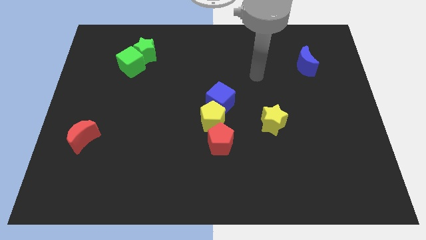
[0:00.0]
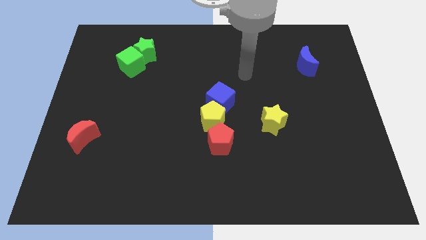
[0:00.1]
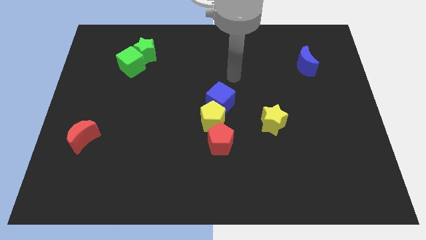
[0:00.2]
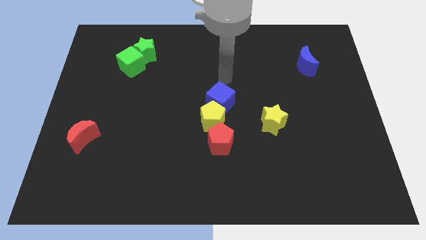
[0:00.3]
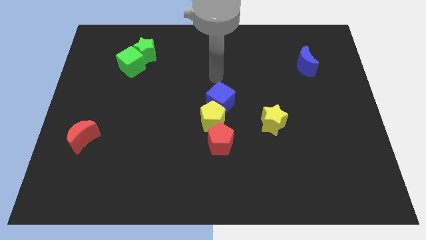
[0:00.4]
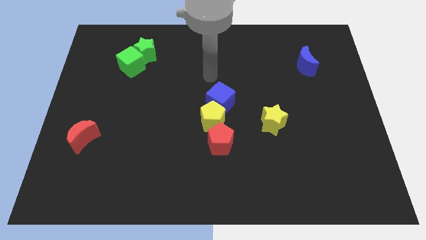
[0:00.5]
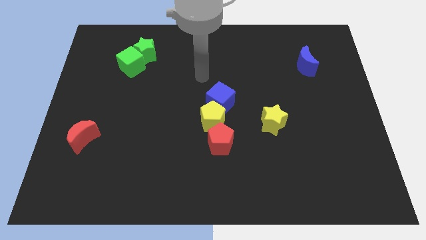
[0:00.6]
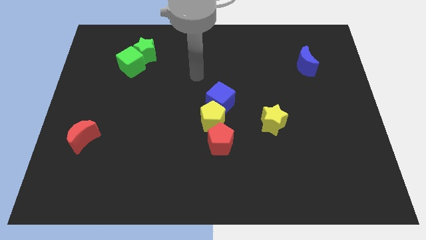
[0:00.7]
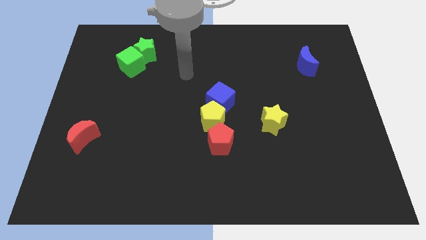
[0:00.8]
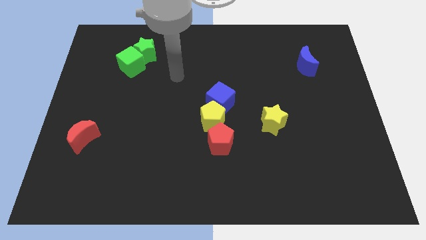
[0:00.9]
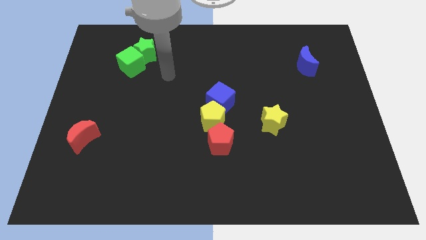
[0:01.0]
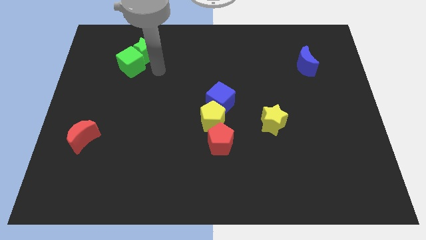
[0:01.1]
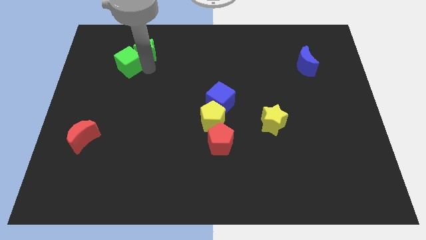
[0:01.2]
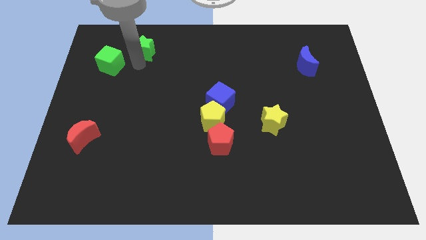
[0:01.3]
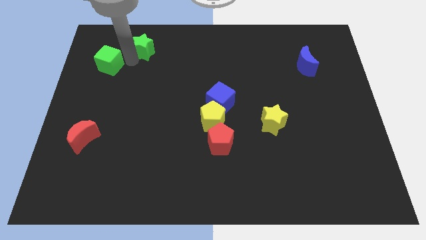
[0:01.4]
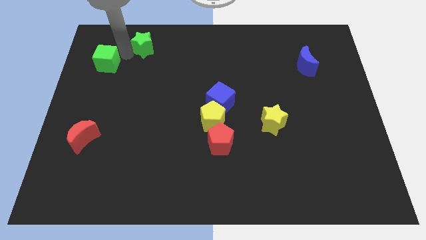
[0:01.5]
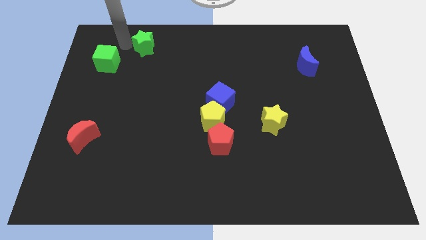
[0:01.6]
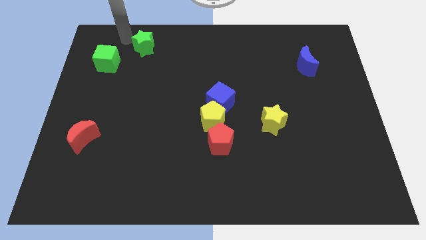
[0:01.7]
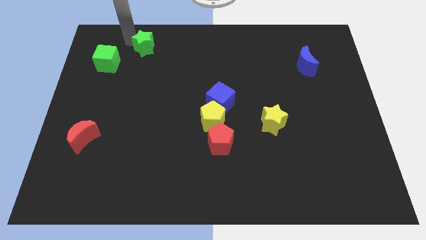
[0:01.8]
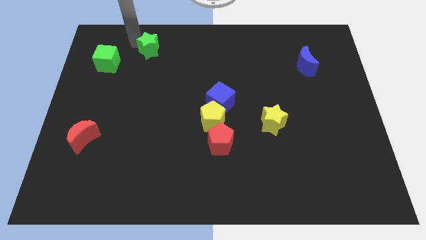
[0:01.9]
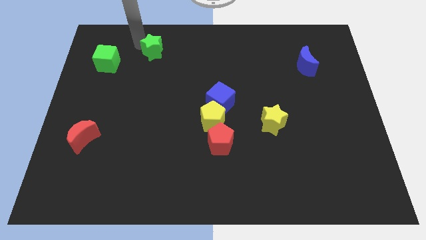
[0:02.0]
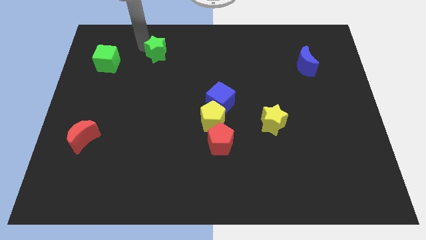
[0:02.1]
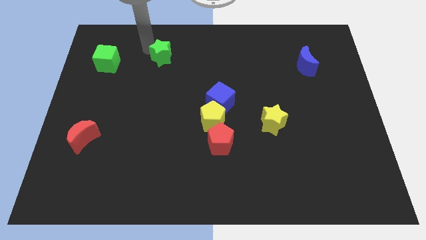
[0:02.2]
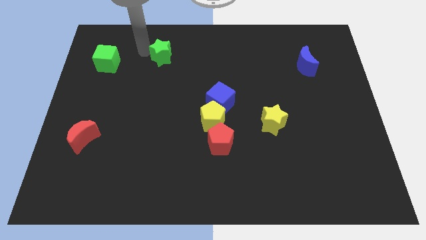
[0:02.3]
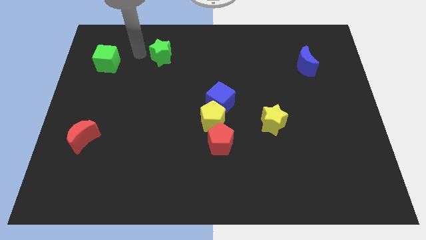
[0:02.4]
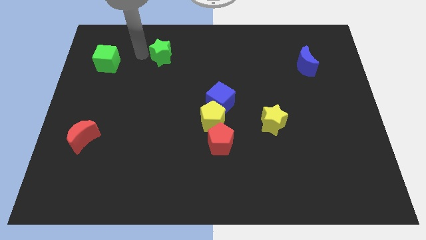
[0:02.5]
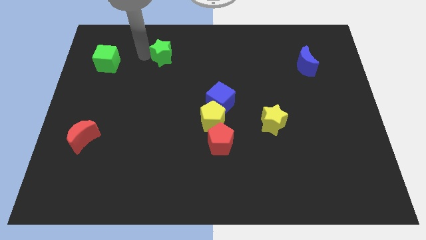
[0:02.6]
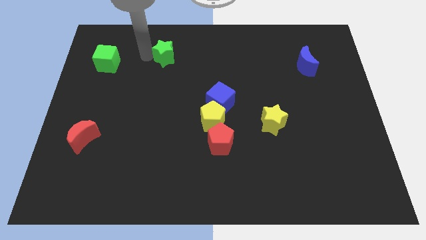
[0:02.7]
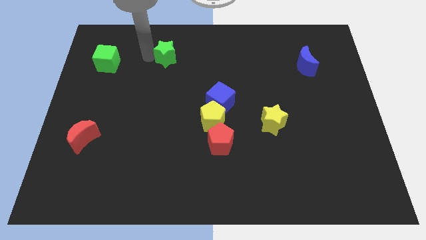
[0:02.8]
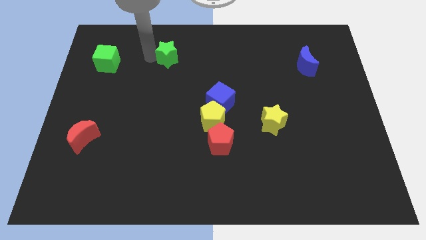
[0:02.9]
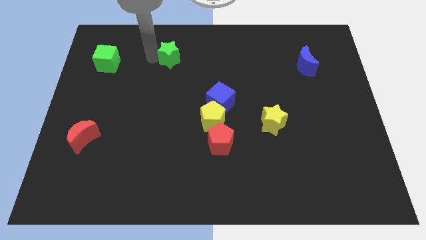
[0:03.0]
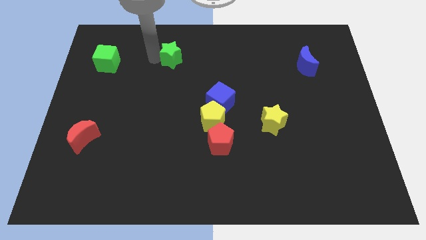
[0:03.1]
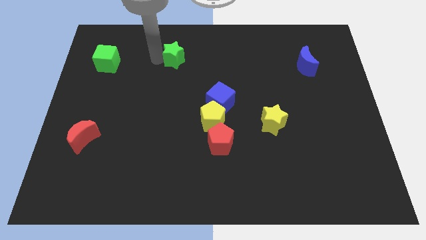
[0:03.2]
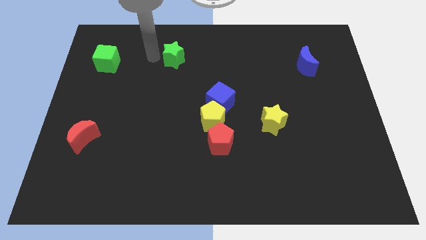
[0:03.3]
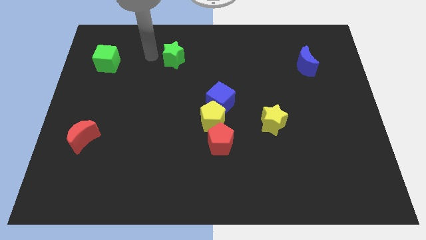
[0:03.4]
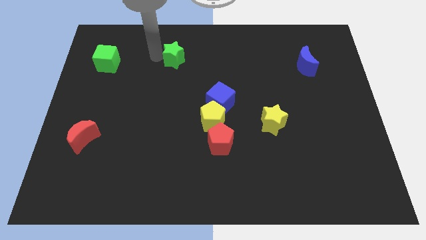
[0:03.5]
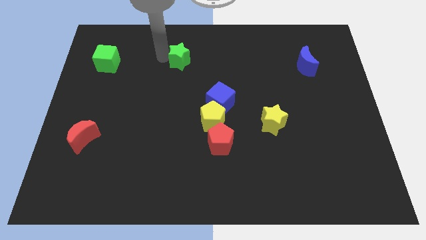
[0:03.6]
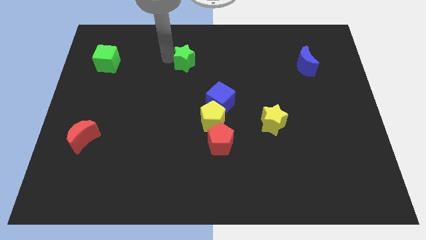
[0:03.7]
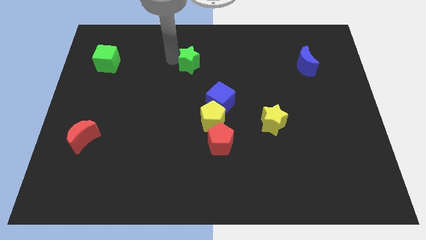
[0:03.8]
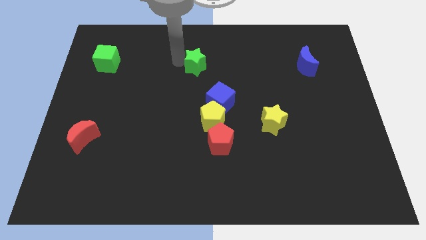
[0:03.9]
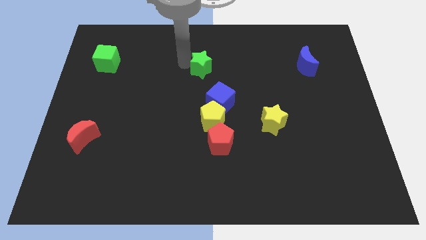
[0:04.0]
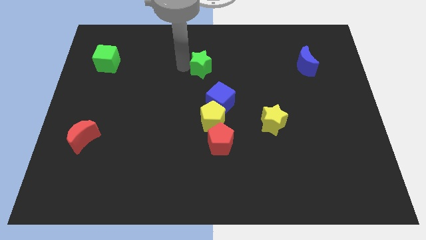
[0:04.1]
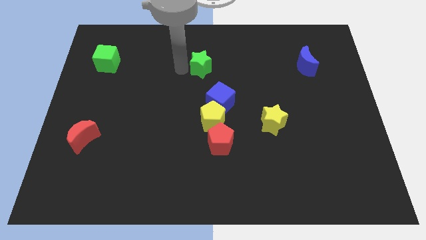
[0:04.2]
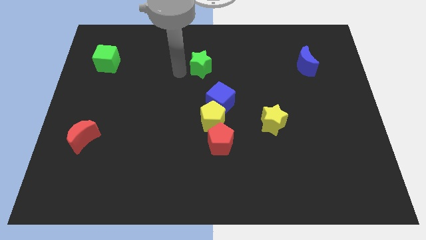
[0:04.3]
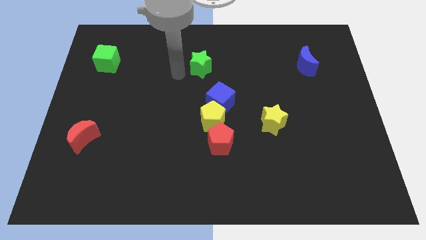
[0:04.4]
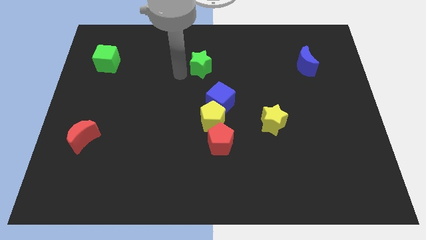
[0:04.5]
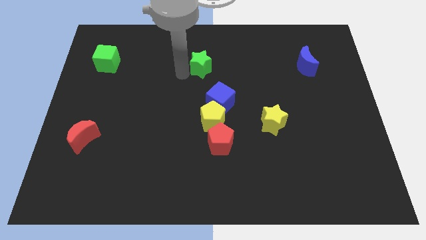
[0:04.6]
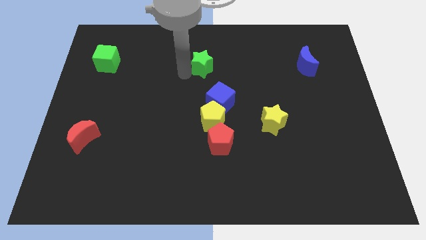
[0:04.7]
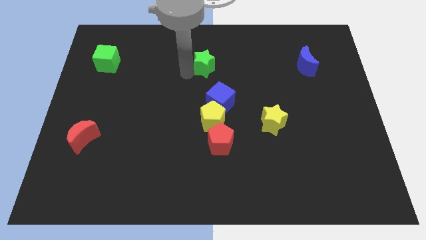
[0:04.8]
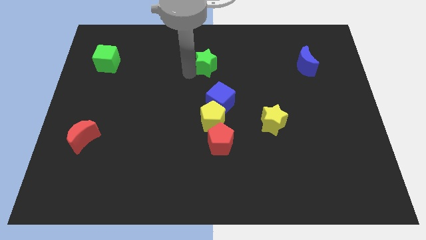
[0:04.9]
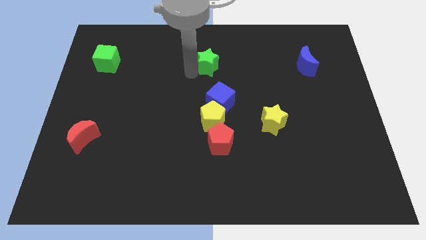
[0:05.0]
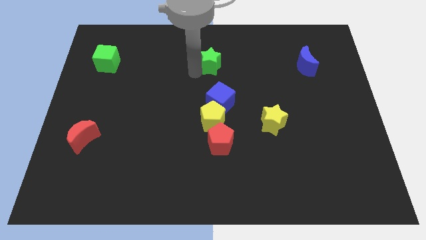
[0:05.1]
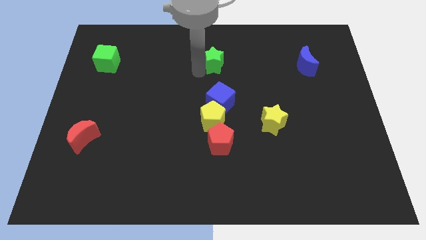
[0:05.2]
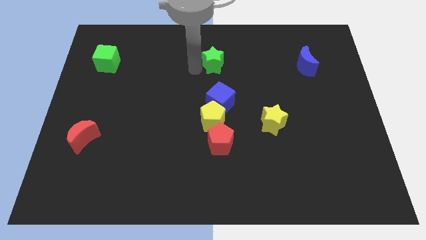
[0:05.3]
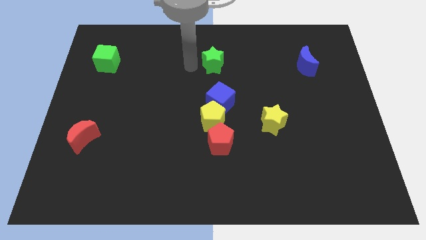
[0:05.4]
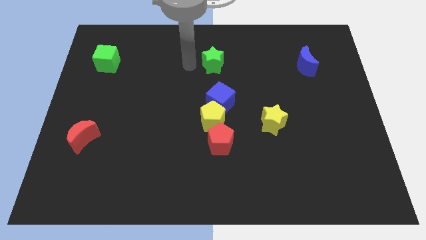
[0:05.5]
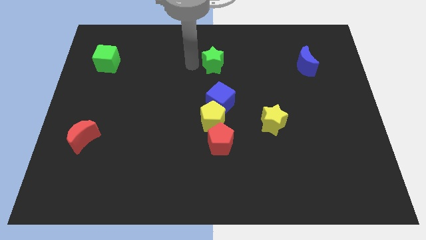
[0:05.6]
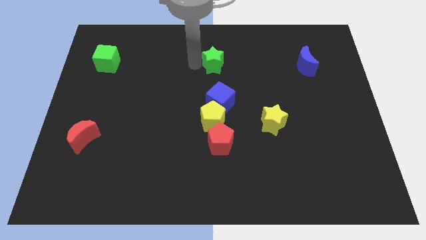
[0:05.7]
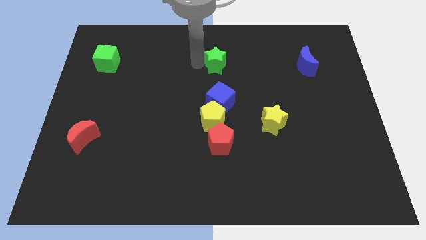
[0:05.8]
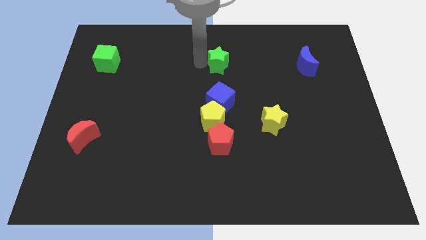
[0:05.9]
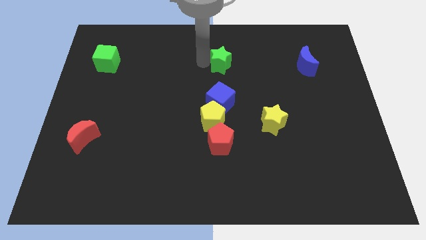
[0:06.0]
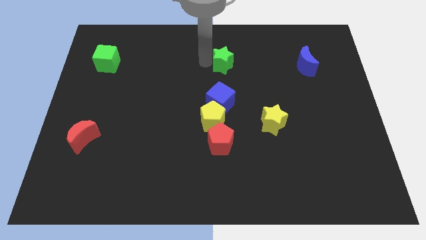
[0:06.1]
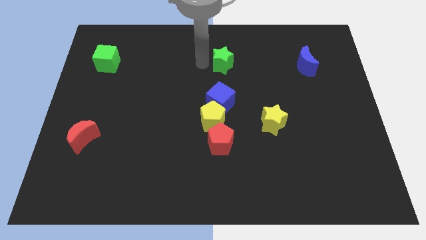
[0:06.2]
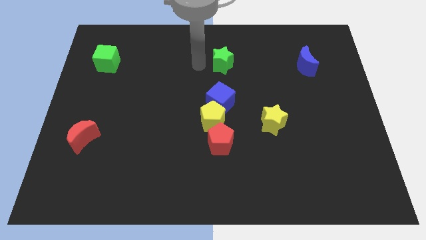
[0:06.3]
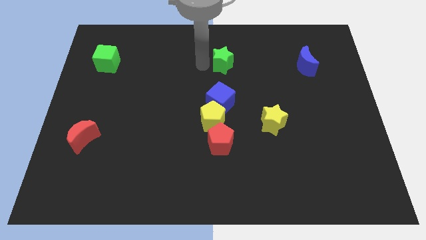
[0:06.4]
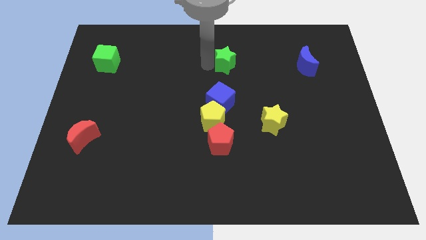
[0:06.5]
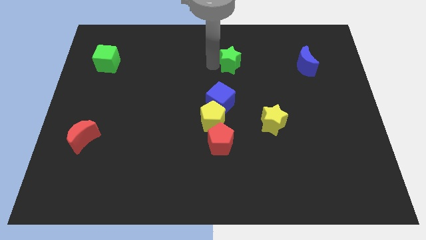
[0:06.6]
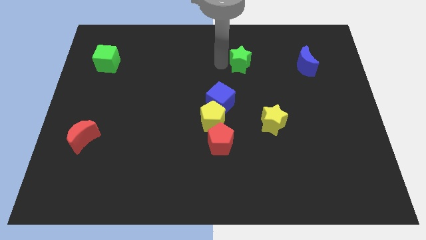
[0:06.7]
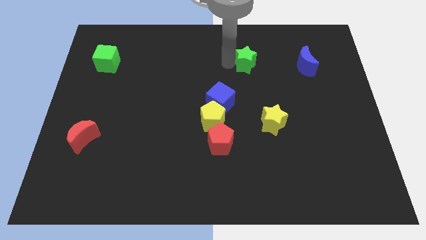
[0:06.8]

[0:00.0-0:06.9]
move the green star to the left of the blue moon

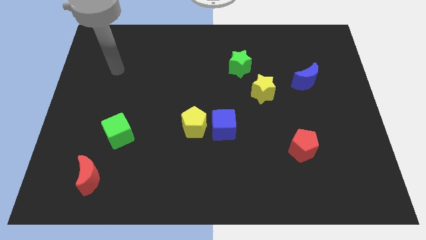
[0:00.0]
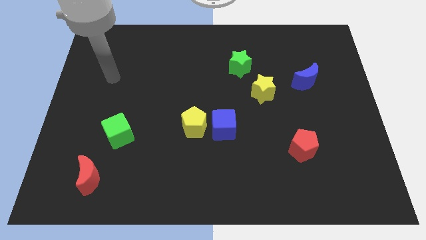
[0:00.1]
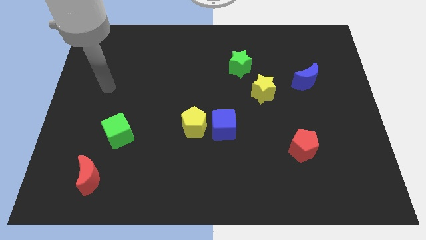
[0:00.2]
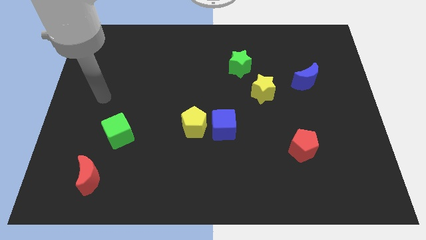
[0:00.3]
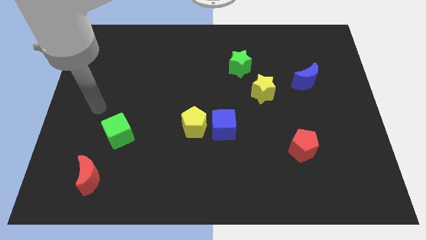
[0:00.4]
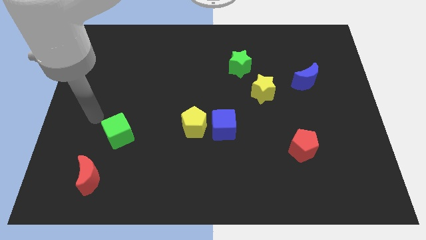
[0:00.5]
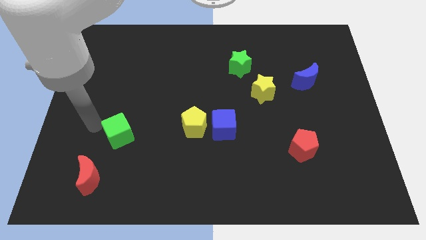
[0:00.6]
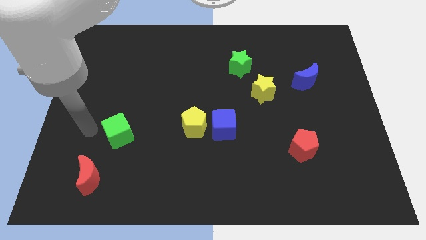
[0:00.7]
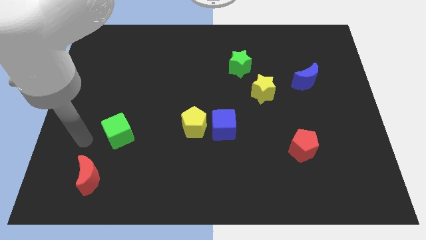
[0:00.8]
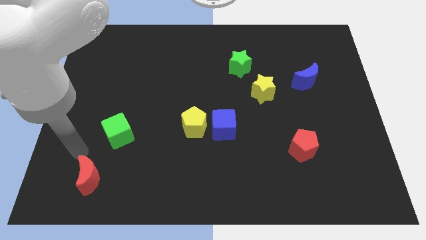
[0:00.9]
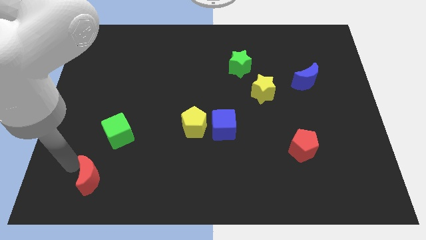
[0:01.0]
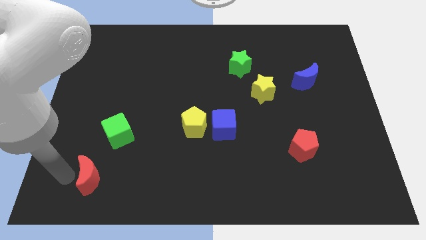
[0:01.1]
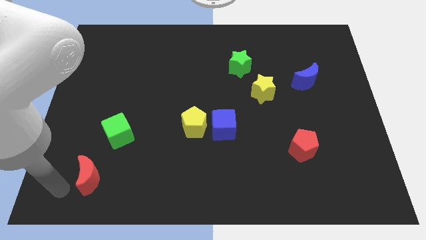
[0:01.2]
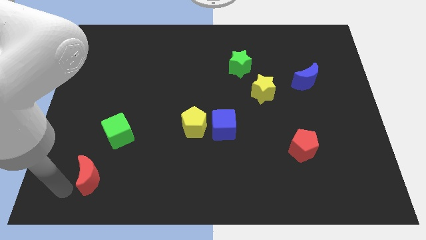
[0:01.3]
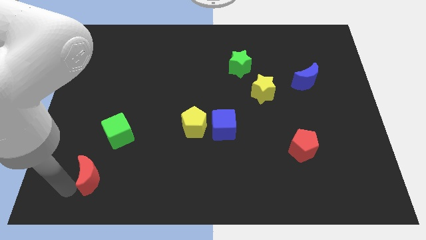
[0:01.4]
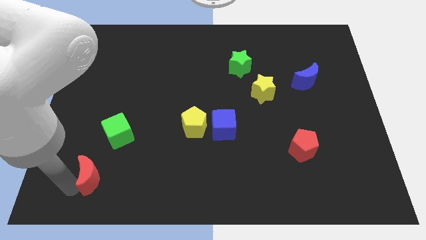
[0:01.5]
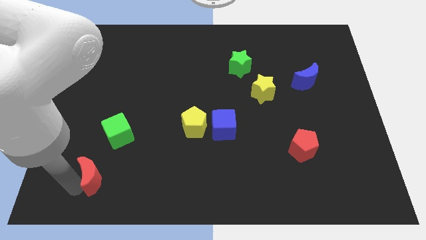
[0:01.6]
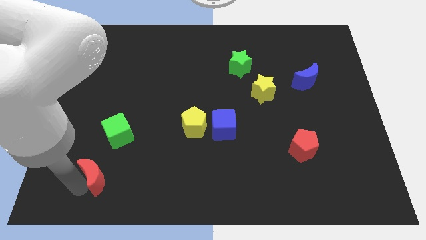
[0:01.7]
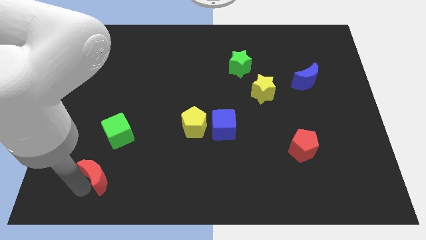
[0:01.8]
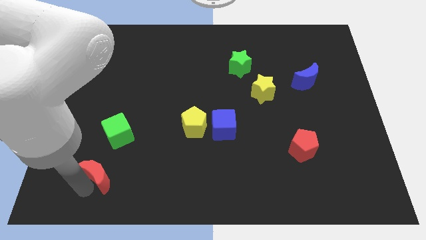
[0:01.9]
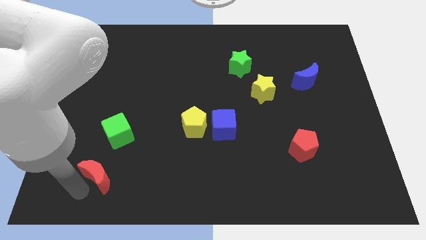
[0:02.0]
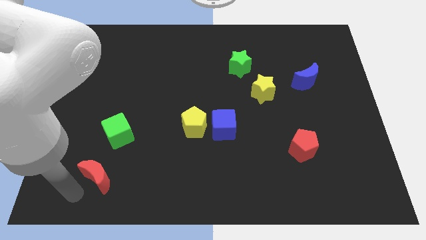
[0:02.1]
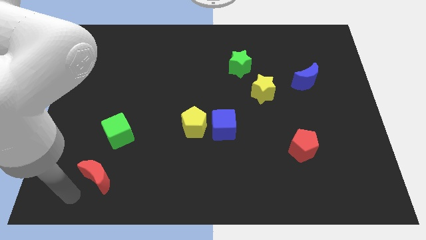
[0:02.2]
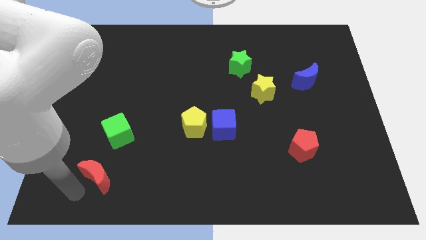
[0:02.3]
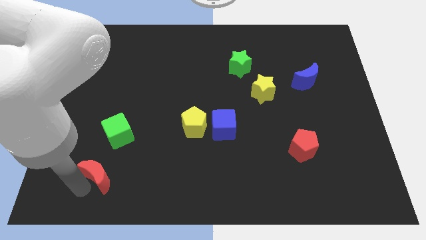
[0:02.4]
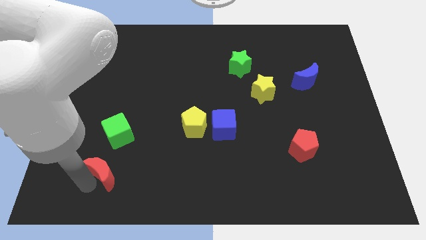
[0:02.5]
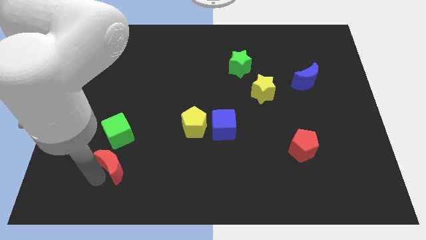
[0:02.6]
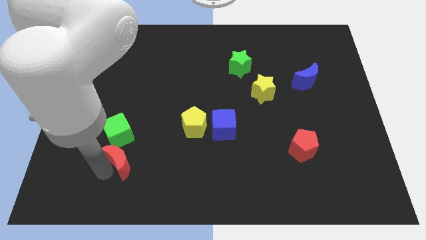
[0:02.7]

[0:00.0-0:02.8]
put the red moon to the bottom right side of the green cube
